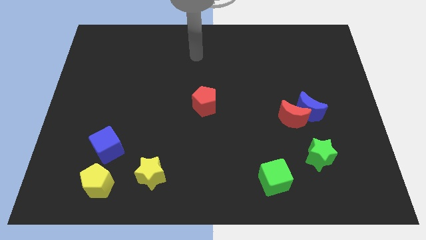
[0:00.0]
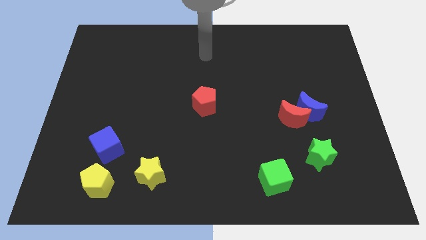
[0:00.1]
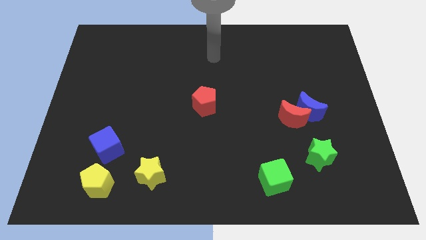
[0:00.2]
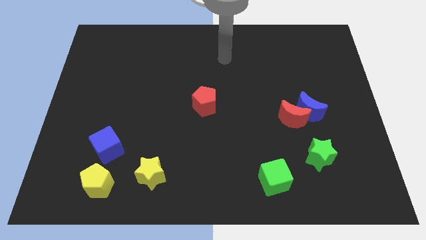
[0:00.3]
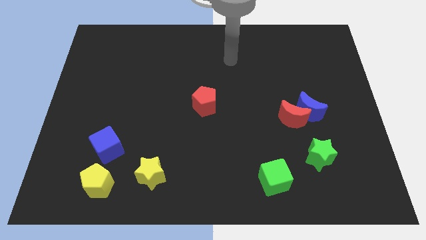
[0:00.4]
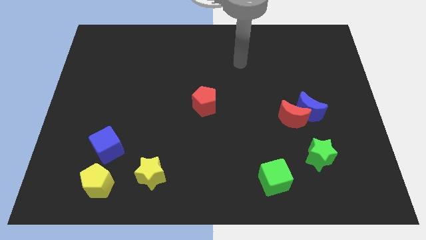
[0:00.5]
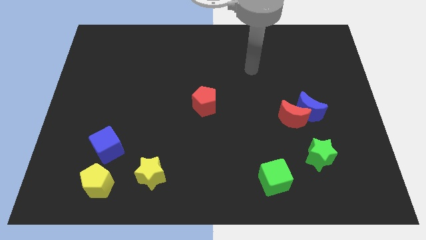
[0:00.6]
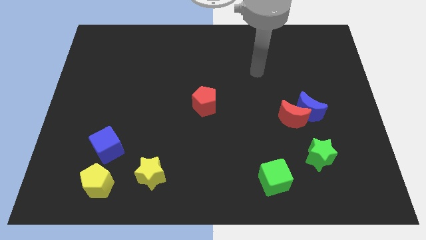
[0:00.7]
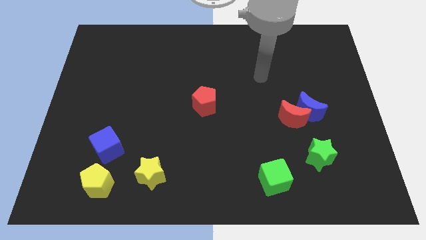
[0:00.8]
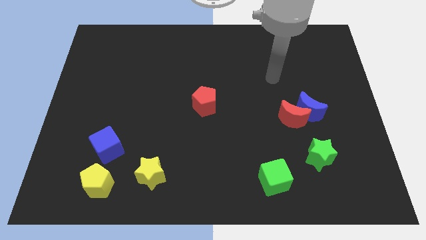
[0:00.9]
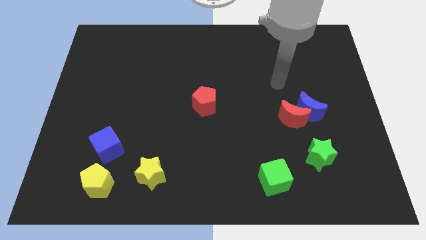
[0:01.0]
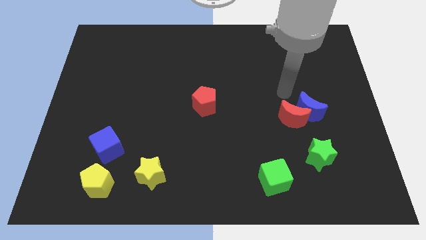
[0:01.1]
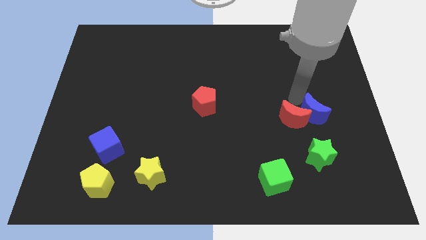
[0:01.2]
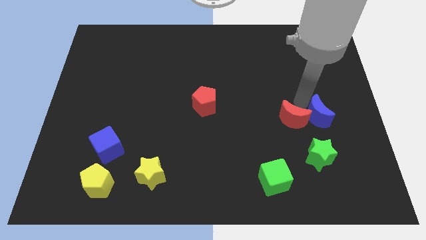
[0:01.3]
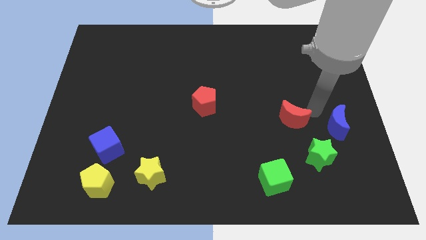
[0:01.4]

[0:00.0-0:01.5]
separate the red moon from the blue moon

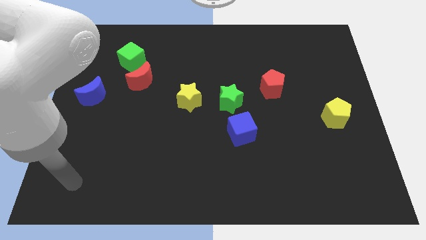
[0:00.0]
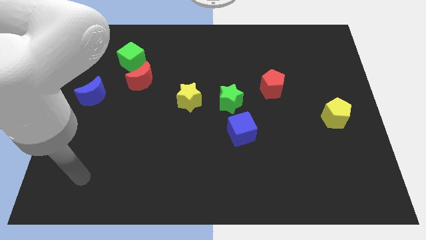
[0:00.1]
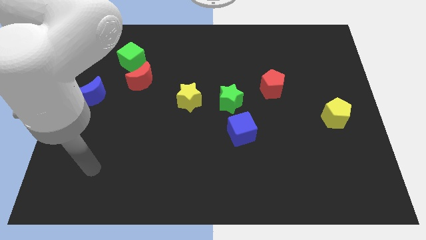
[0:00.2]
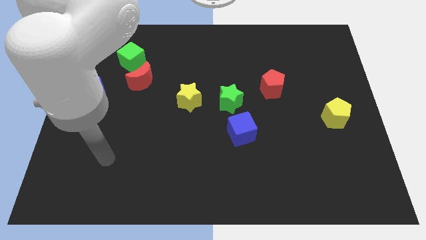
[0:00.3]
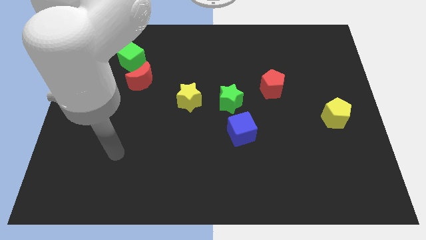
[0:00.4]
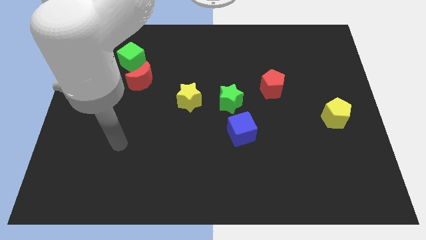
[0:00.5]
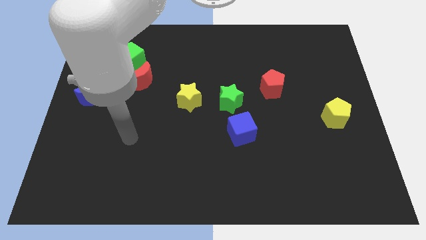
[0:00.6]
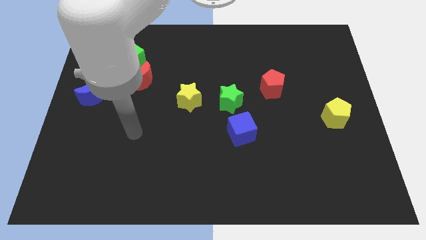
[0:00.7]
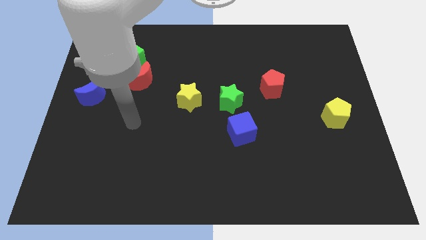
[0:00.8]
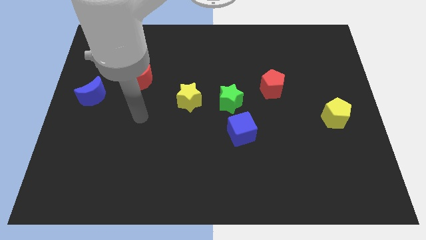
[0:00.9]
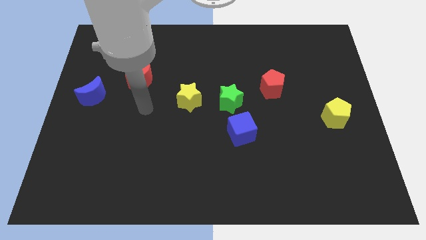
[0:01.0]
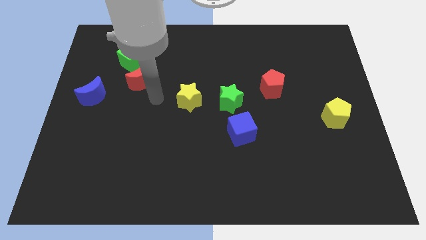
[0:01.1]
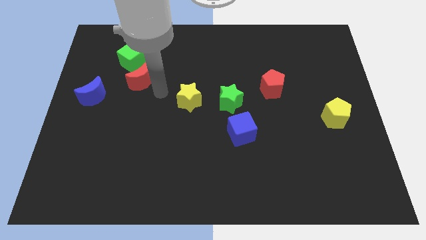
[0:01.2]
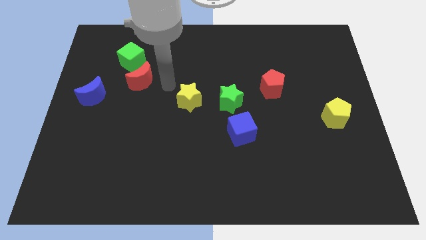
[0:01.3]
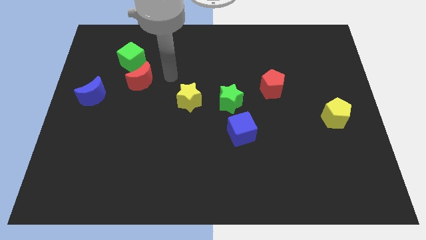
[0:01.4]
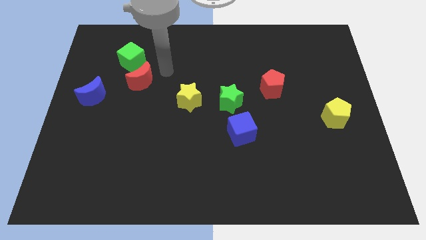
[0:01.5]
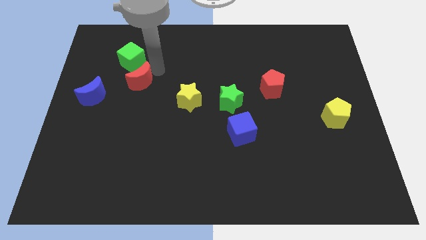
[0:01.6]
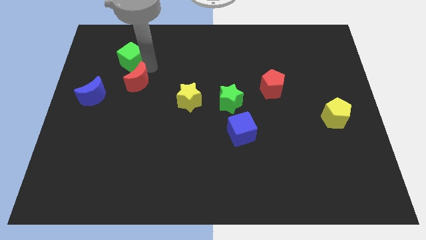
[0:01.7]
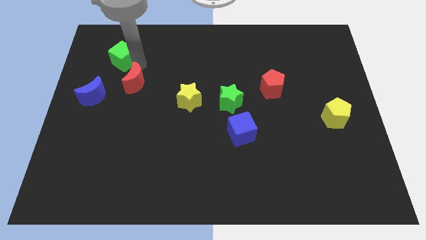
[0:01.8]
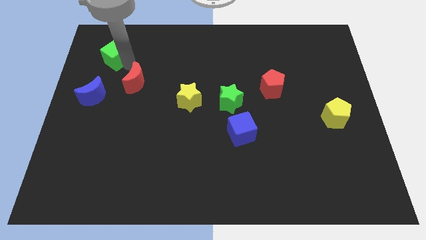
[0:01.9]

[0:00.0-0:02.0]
pull the red moon apart from the green cube

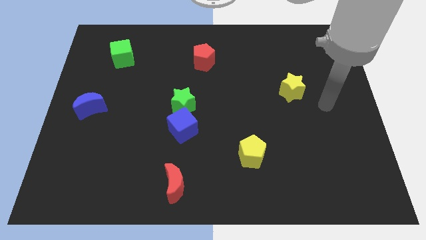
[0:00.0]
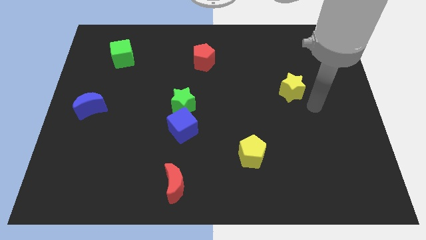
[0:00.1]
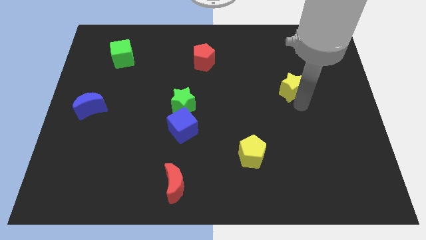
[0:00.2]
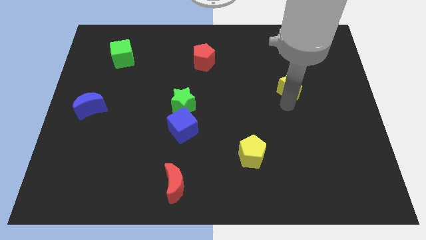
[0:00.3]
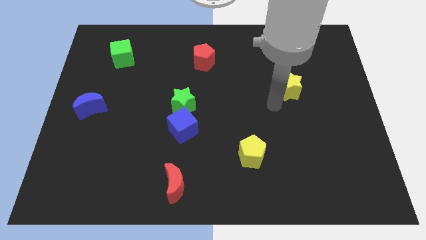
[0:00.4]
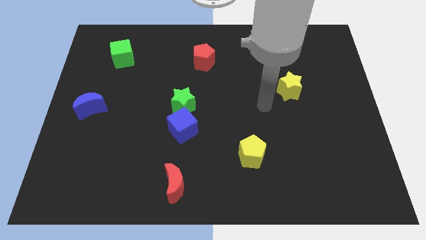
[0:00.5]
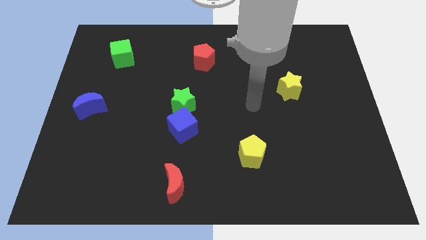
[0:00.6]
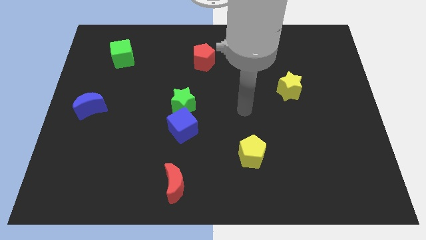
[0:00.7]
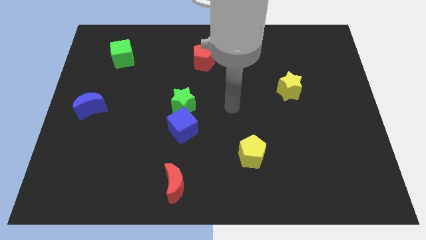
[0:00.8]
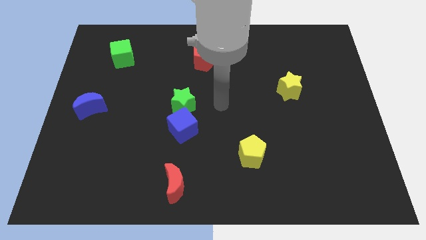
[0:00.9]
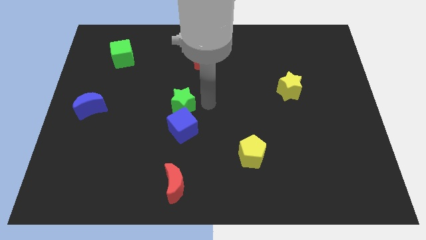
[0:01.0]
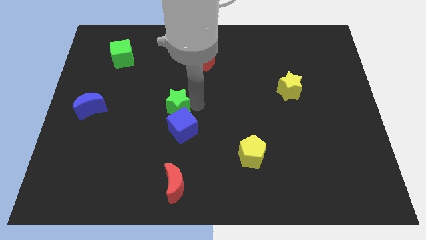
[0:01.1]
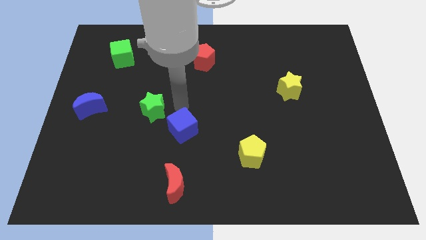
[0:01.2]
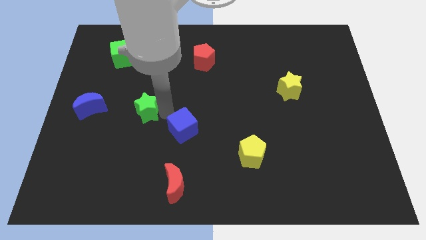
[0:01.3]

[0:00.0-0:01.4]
pull the blue cube apart from the green star

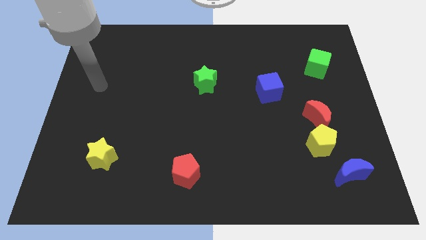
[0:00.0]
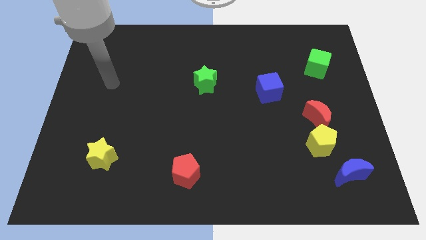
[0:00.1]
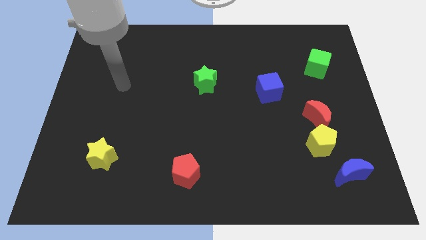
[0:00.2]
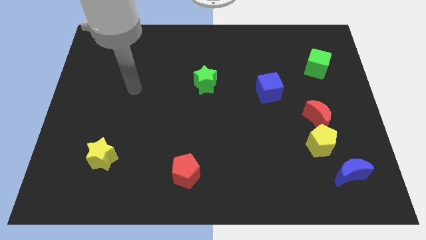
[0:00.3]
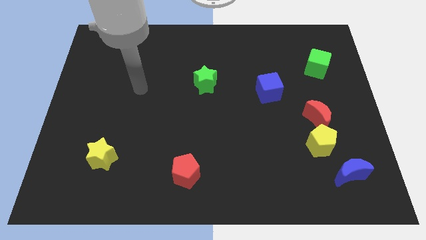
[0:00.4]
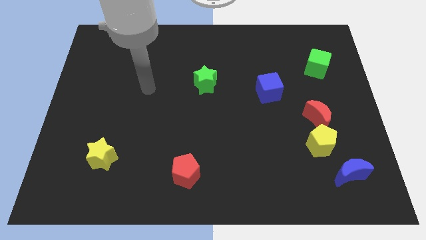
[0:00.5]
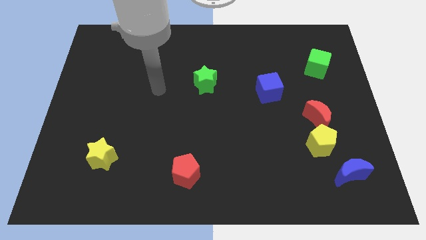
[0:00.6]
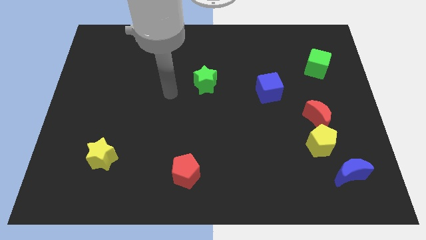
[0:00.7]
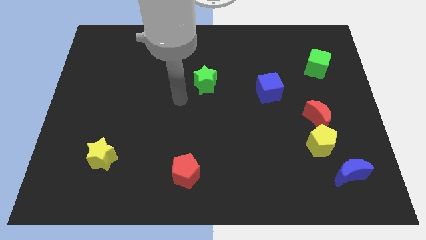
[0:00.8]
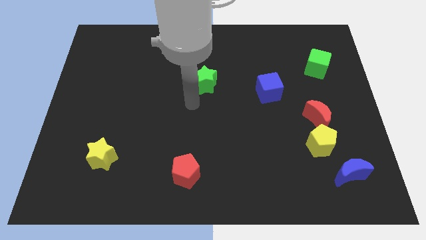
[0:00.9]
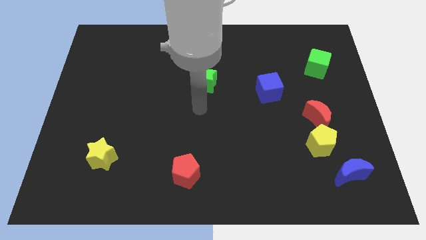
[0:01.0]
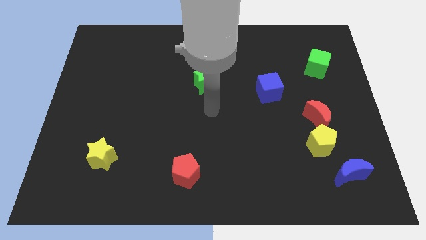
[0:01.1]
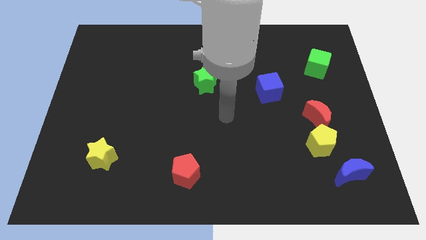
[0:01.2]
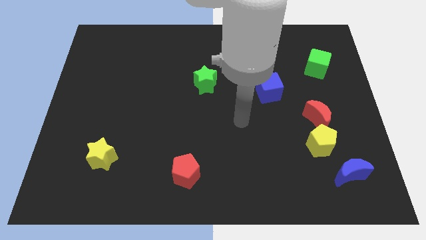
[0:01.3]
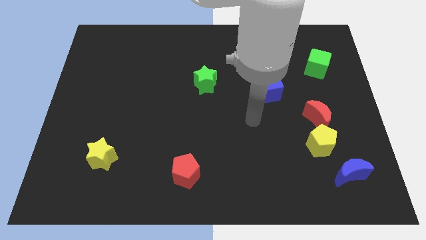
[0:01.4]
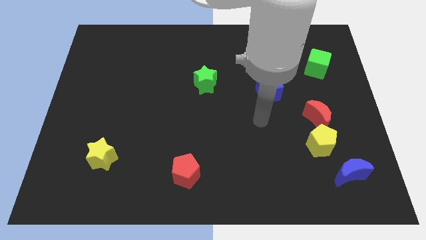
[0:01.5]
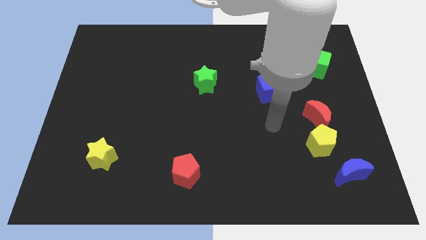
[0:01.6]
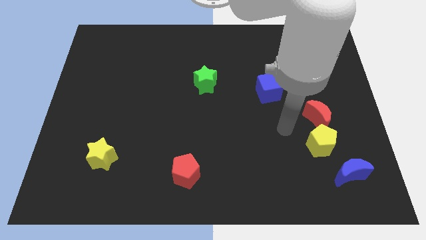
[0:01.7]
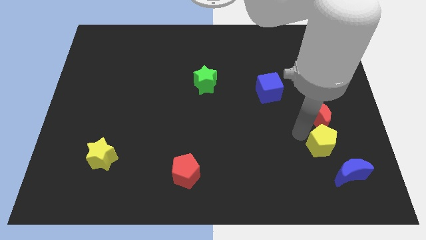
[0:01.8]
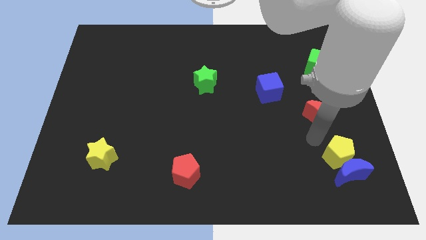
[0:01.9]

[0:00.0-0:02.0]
separate the red moon from the yellow pentagon

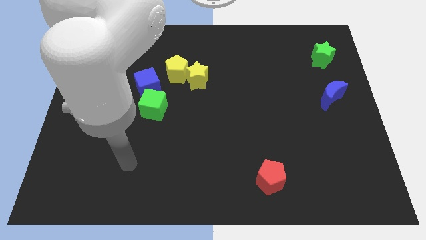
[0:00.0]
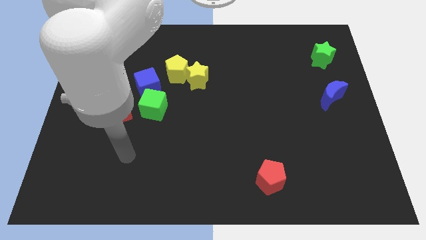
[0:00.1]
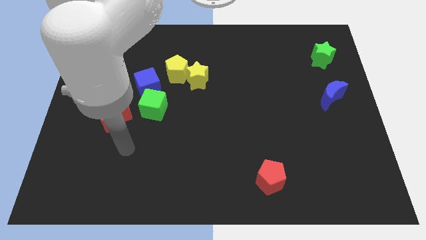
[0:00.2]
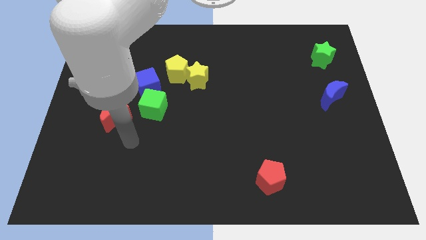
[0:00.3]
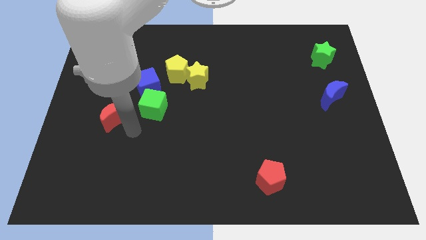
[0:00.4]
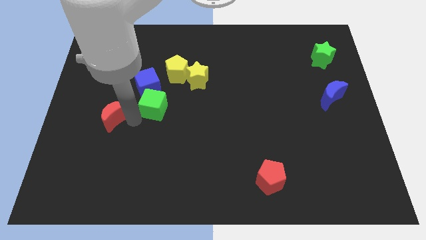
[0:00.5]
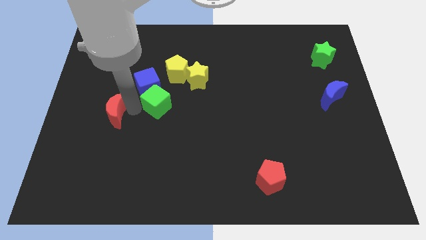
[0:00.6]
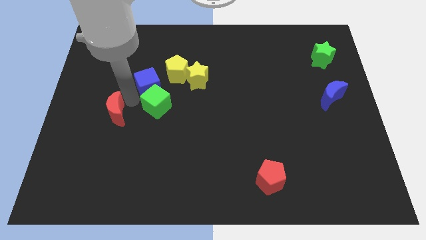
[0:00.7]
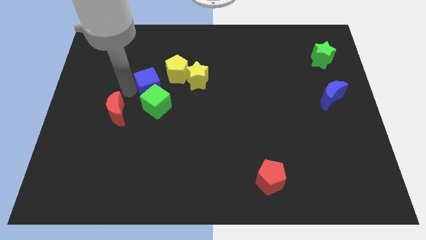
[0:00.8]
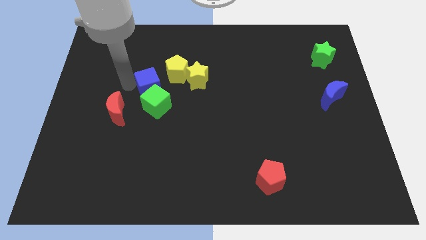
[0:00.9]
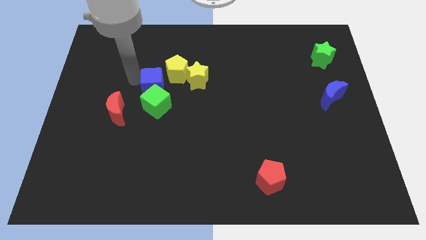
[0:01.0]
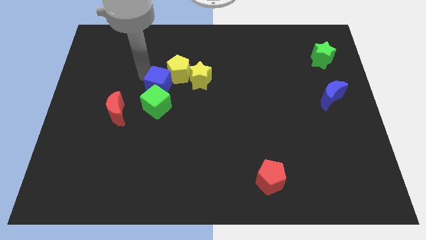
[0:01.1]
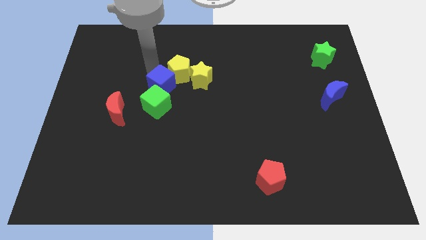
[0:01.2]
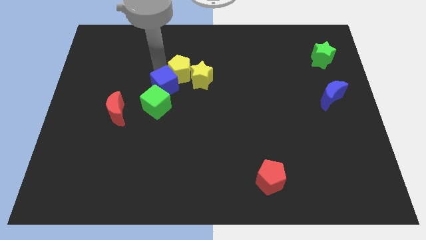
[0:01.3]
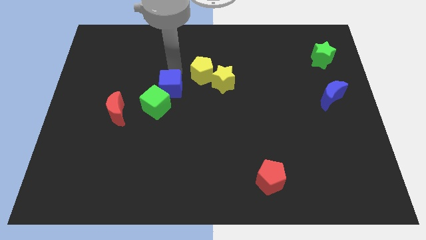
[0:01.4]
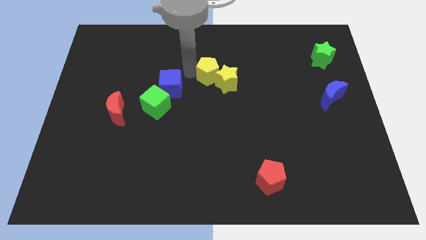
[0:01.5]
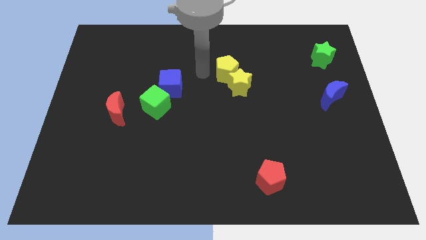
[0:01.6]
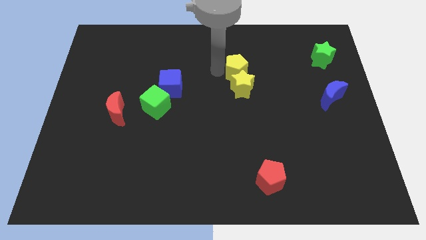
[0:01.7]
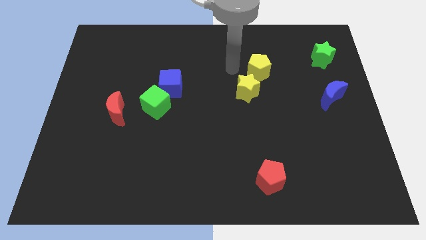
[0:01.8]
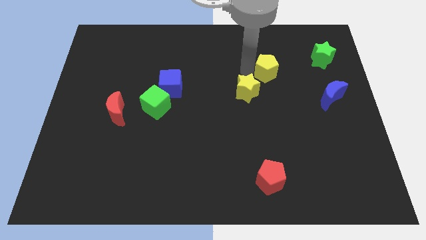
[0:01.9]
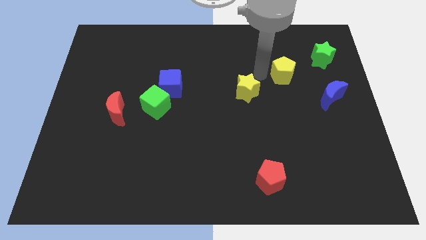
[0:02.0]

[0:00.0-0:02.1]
separate the yellow star from the yellow pentagon

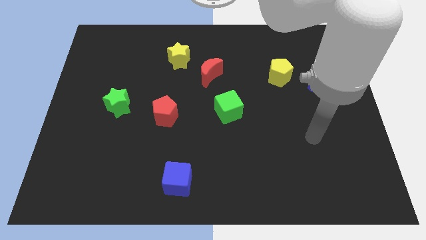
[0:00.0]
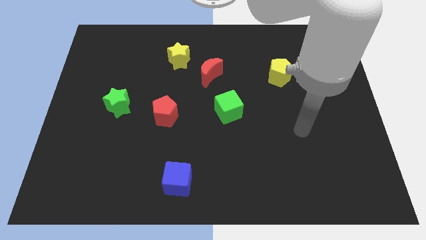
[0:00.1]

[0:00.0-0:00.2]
move the red moon away from the yellow star
